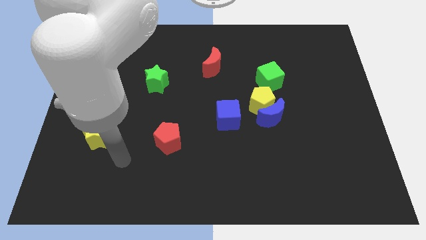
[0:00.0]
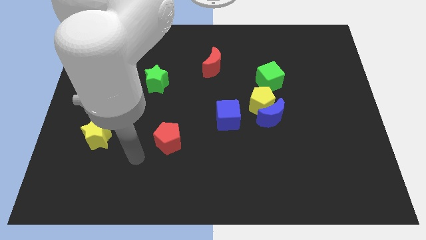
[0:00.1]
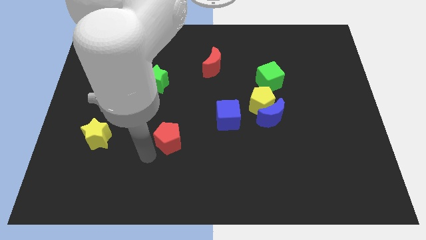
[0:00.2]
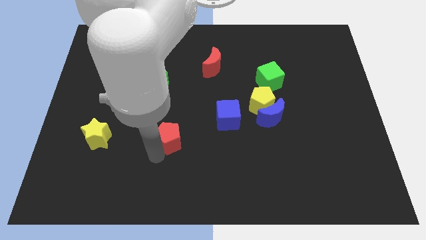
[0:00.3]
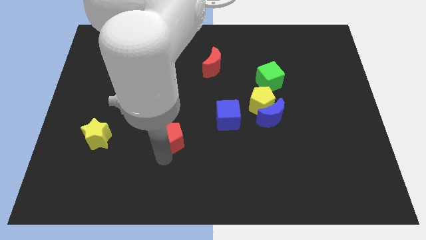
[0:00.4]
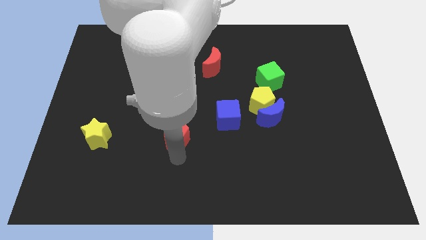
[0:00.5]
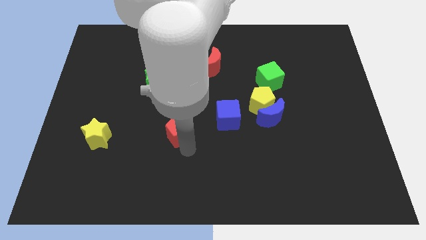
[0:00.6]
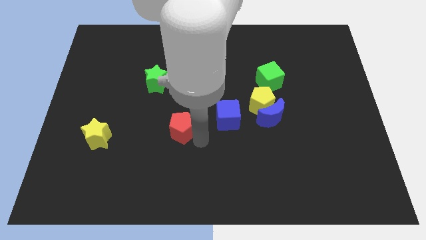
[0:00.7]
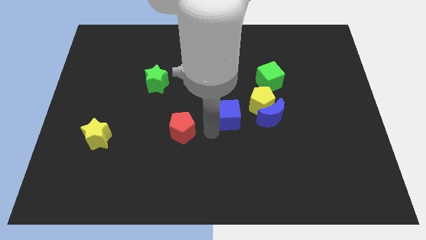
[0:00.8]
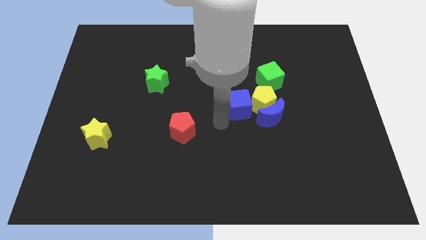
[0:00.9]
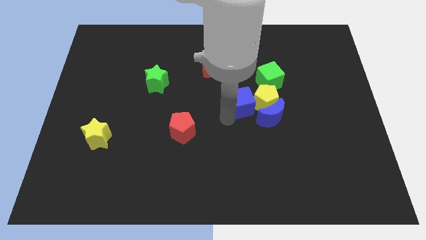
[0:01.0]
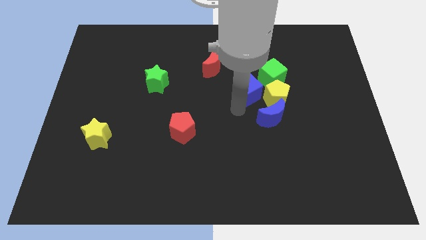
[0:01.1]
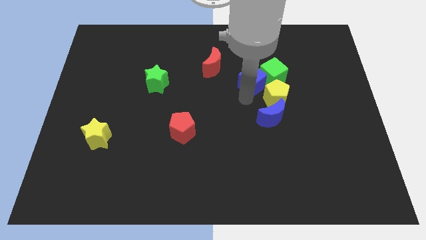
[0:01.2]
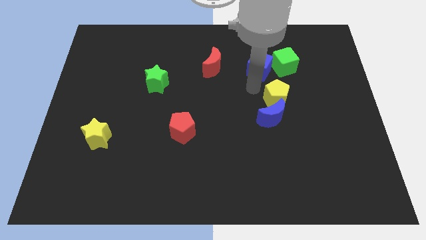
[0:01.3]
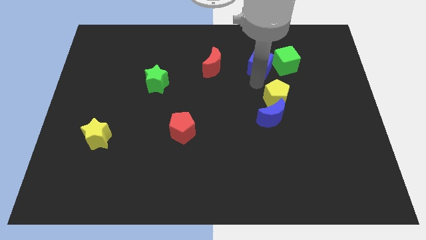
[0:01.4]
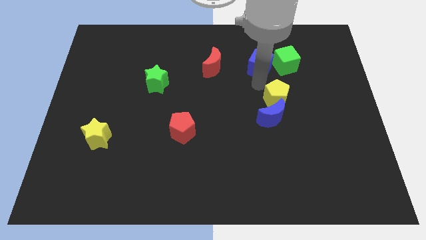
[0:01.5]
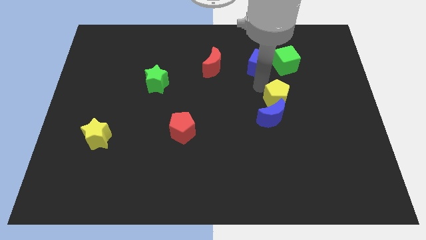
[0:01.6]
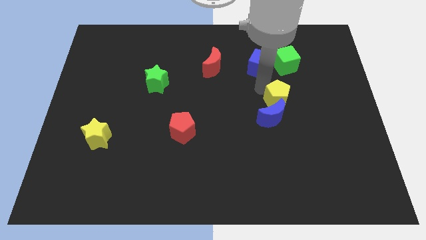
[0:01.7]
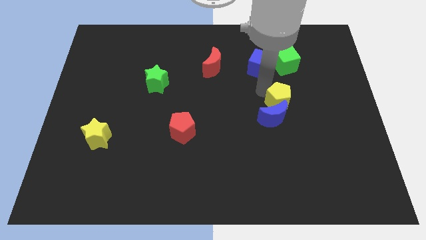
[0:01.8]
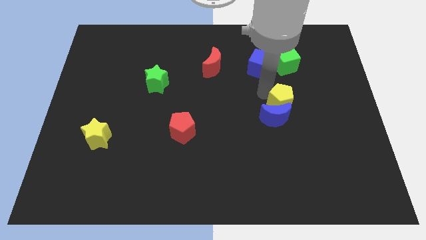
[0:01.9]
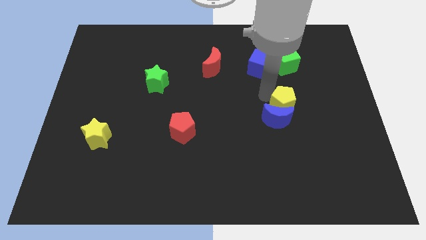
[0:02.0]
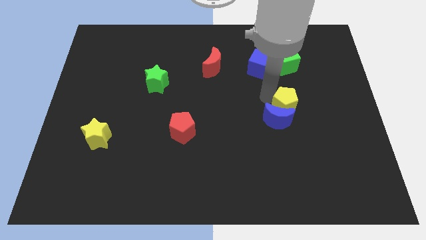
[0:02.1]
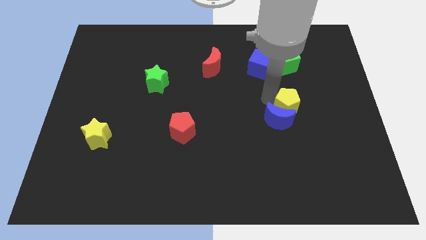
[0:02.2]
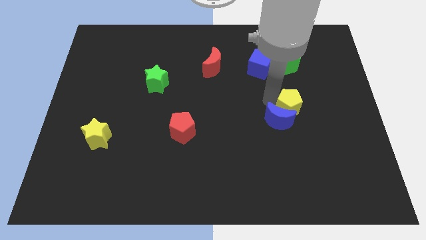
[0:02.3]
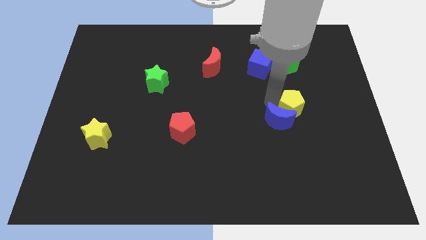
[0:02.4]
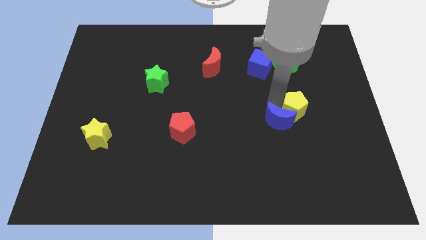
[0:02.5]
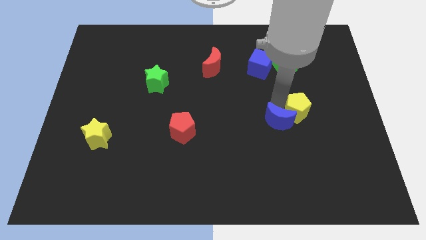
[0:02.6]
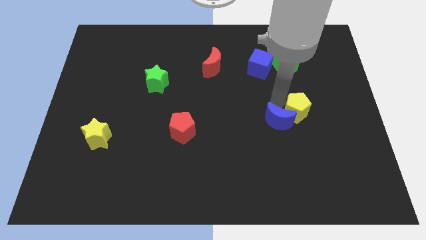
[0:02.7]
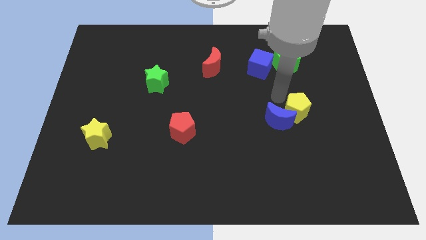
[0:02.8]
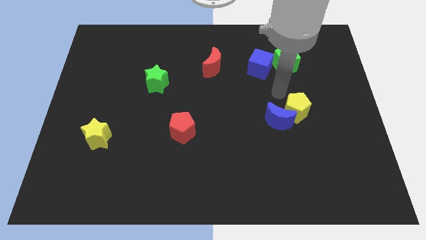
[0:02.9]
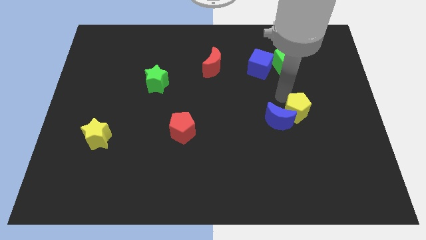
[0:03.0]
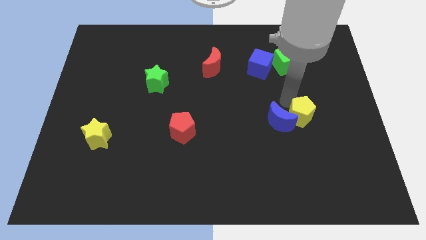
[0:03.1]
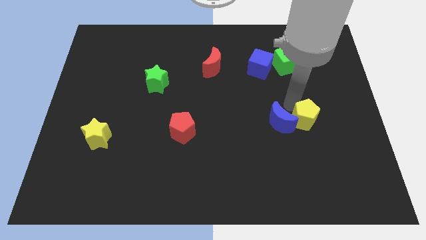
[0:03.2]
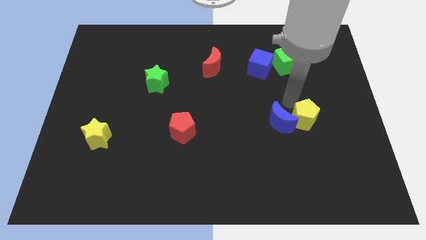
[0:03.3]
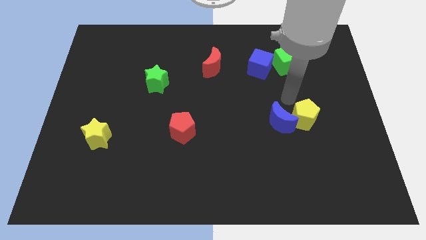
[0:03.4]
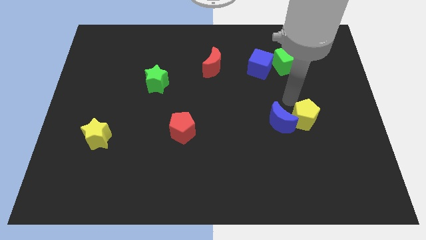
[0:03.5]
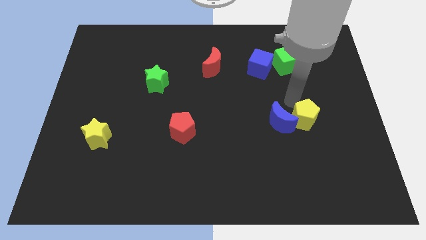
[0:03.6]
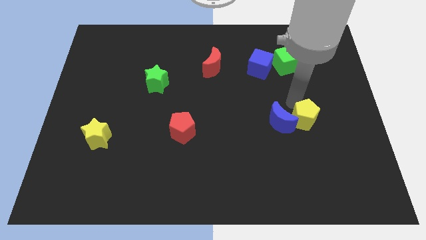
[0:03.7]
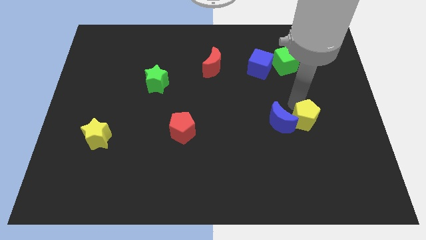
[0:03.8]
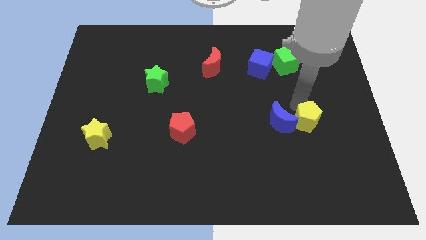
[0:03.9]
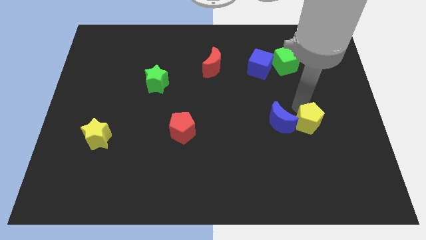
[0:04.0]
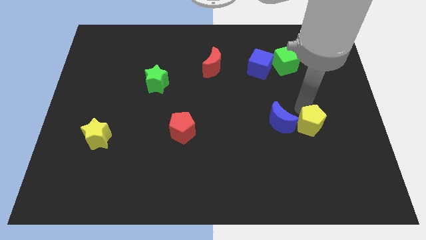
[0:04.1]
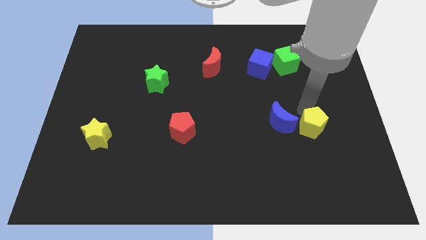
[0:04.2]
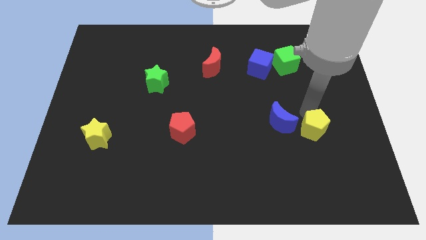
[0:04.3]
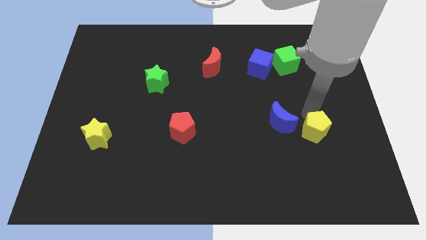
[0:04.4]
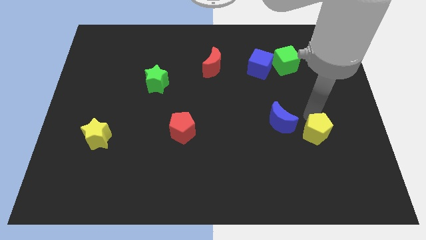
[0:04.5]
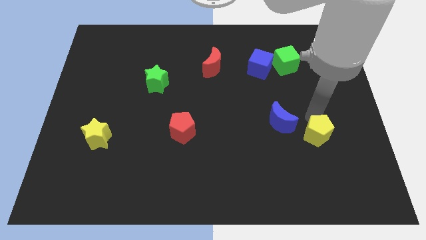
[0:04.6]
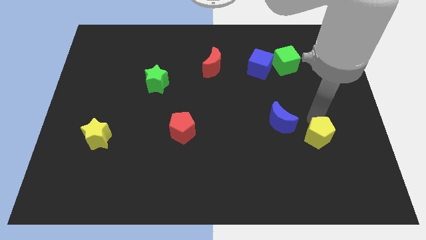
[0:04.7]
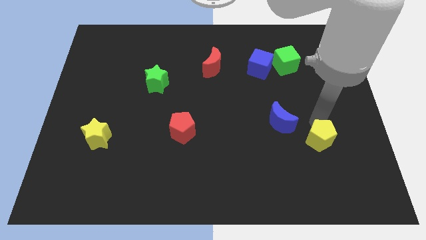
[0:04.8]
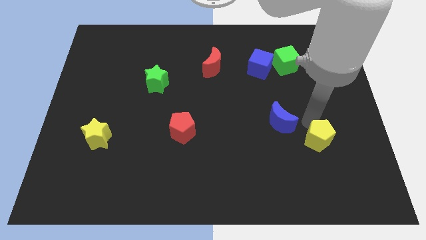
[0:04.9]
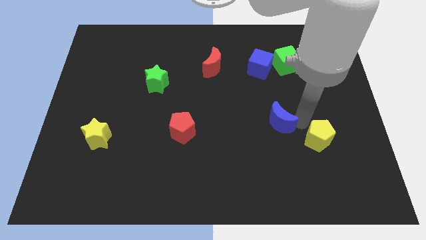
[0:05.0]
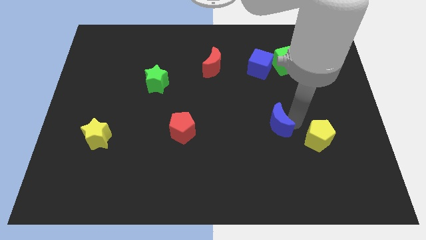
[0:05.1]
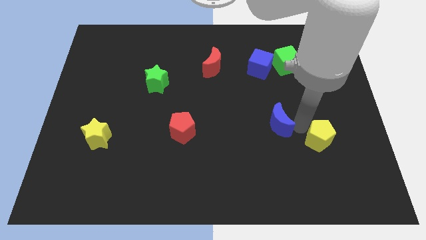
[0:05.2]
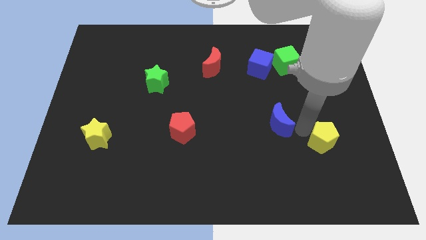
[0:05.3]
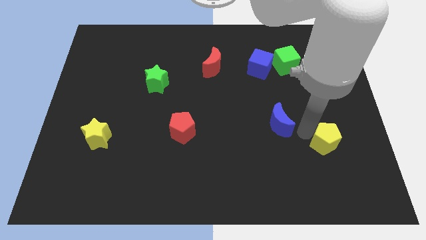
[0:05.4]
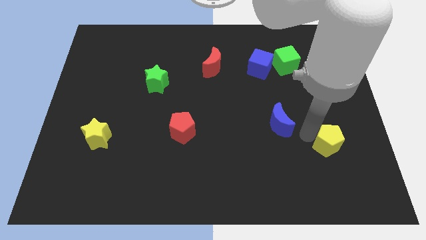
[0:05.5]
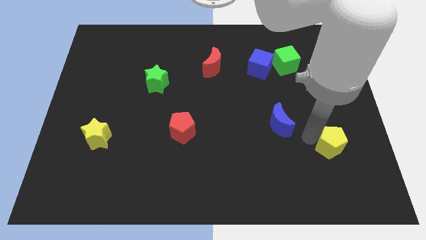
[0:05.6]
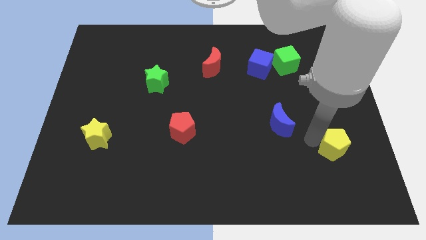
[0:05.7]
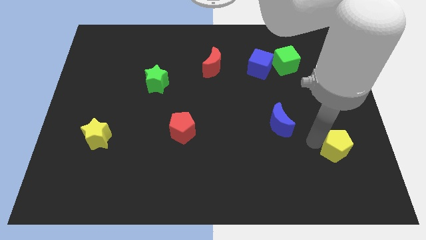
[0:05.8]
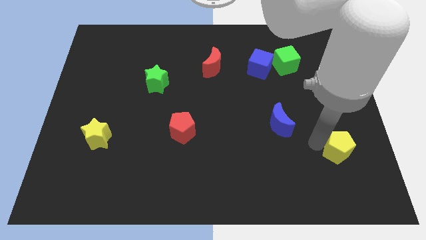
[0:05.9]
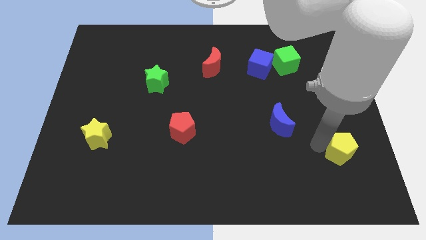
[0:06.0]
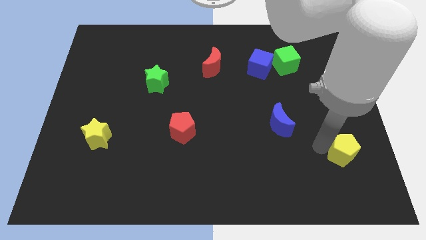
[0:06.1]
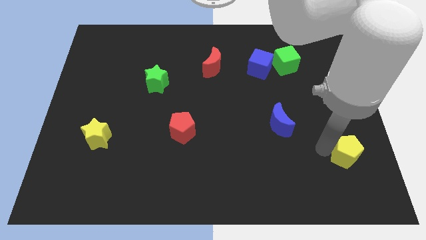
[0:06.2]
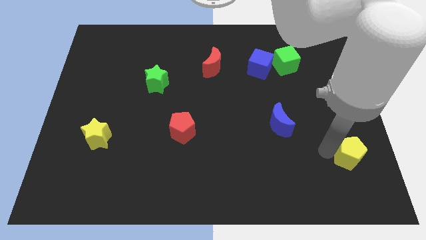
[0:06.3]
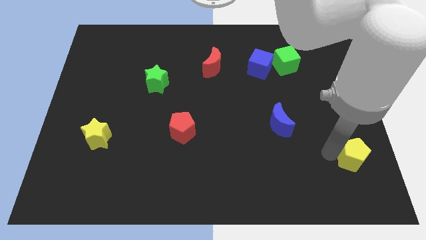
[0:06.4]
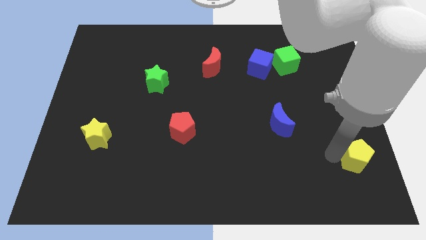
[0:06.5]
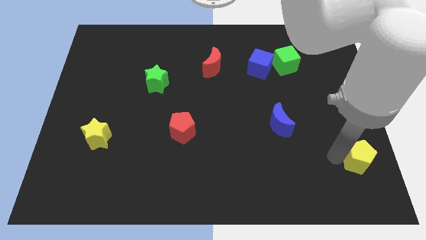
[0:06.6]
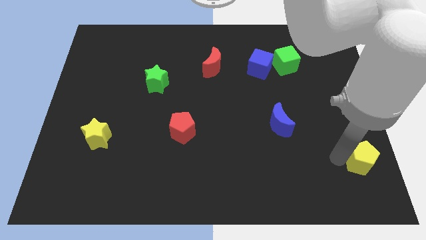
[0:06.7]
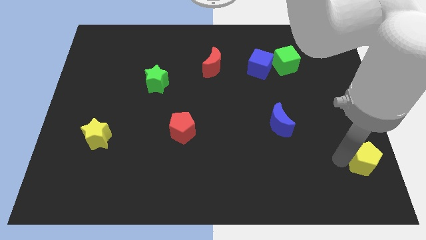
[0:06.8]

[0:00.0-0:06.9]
slide the yellow pentagon to the bottom right corner

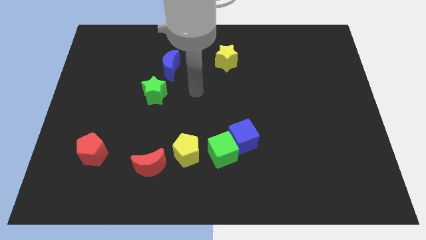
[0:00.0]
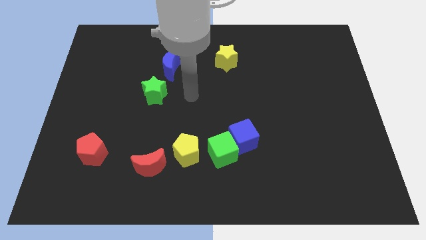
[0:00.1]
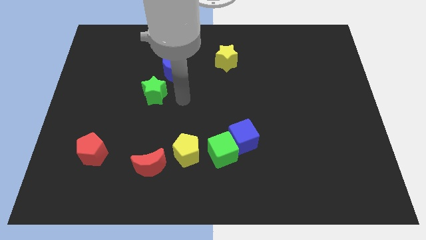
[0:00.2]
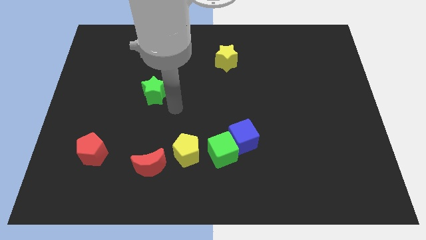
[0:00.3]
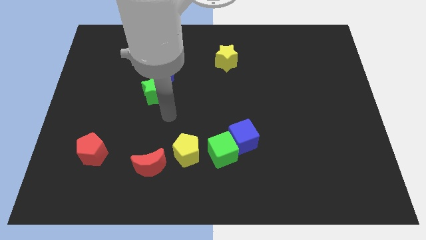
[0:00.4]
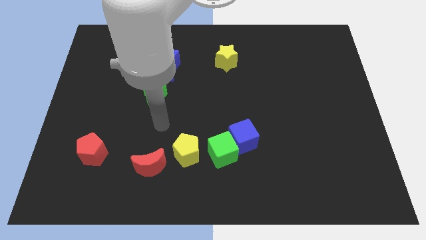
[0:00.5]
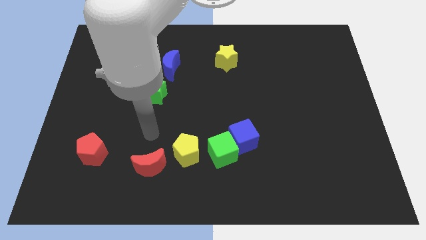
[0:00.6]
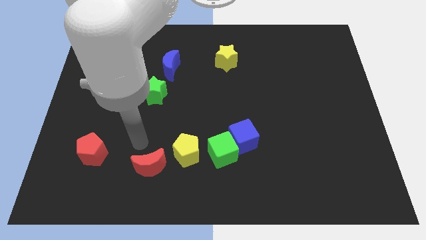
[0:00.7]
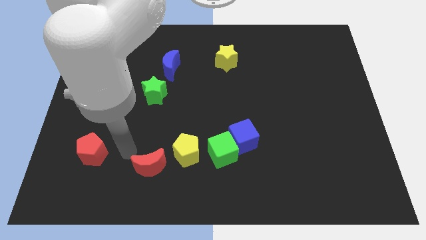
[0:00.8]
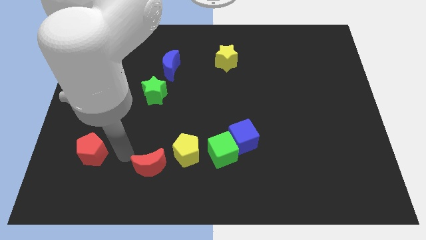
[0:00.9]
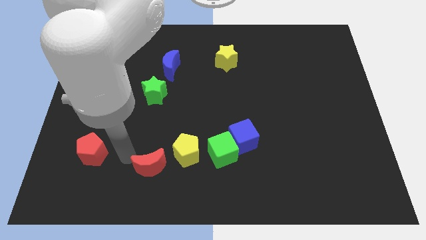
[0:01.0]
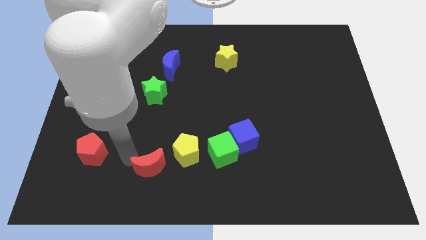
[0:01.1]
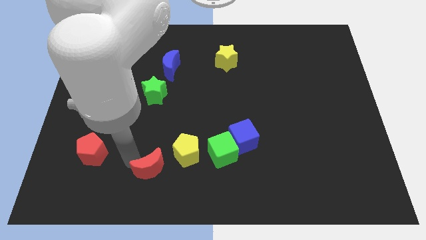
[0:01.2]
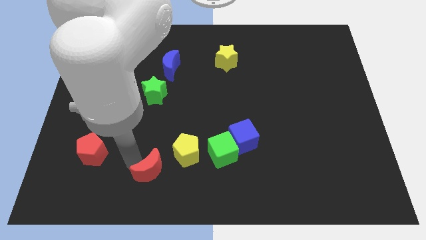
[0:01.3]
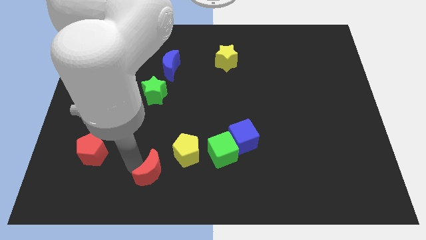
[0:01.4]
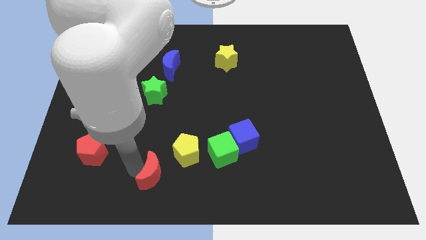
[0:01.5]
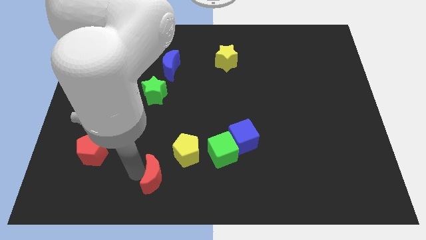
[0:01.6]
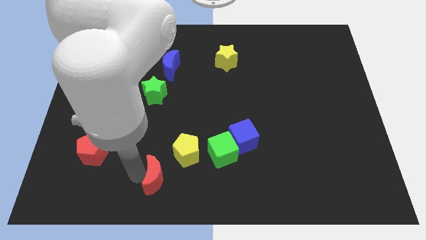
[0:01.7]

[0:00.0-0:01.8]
push the red moon to the bottom
